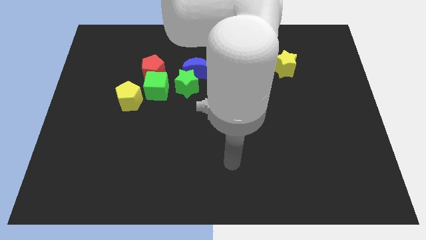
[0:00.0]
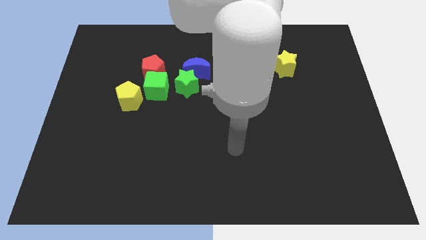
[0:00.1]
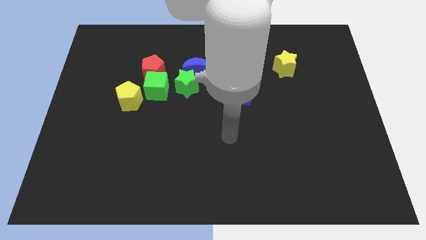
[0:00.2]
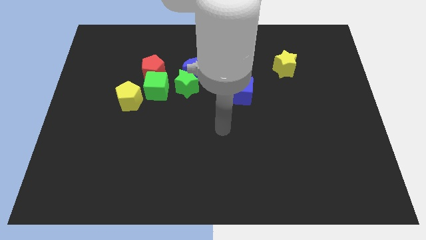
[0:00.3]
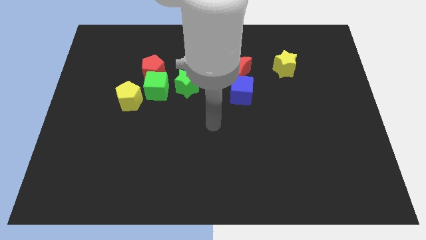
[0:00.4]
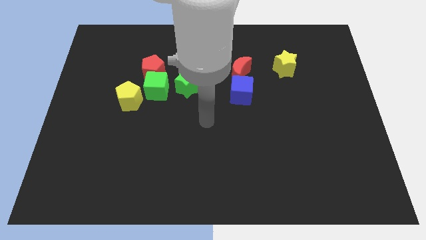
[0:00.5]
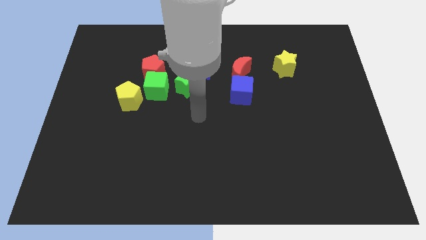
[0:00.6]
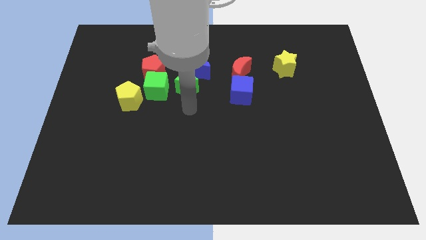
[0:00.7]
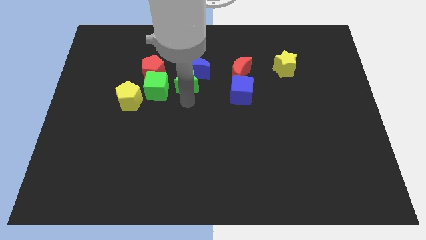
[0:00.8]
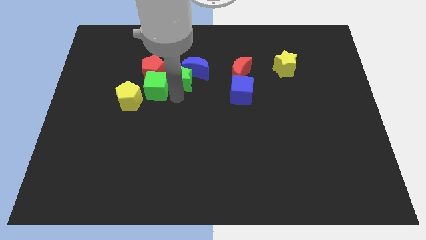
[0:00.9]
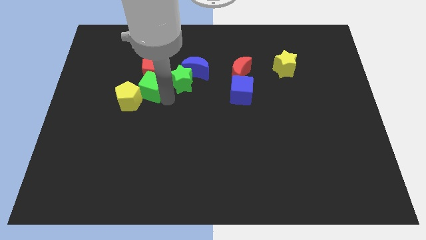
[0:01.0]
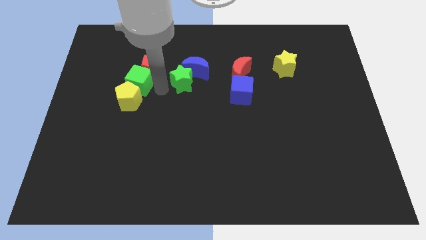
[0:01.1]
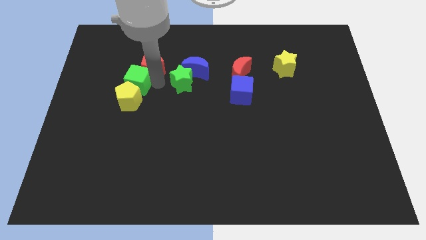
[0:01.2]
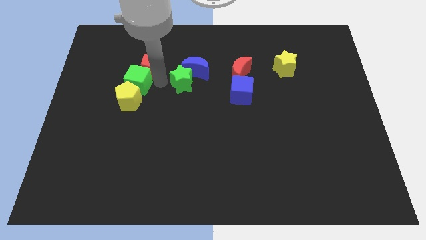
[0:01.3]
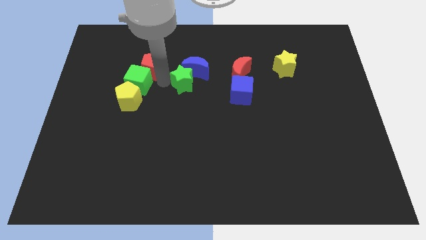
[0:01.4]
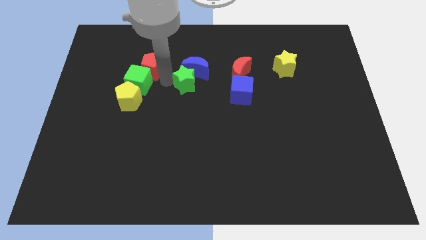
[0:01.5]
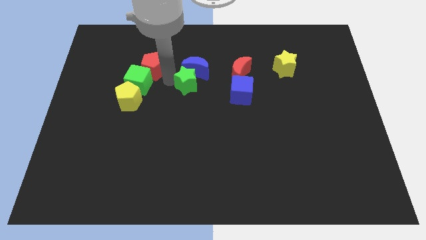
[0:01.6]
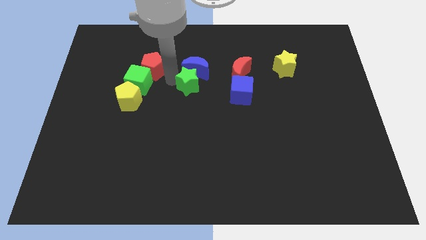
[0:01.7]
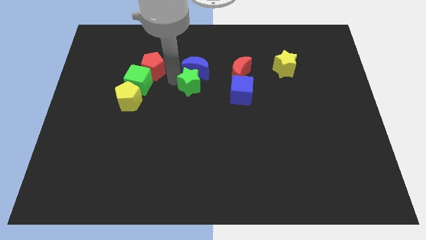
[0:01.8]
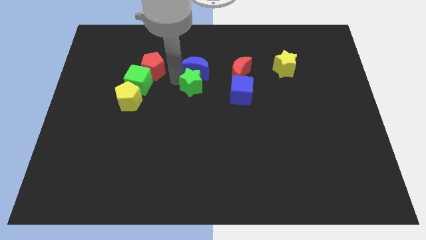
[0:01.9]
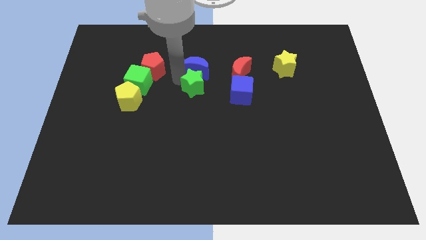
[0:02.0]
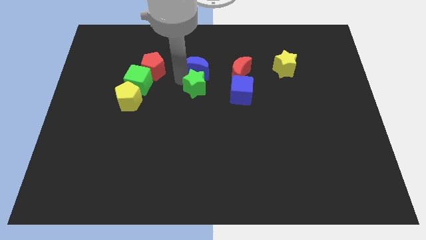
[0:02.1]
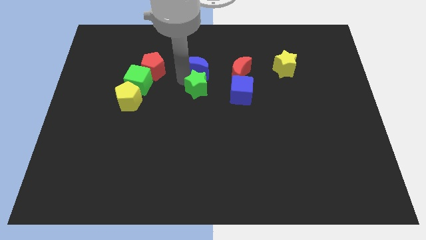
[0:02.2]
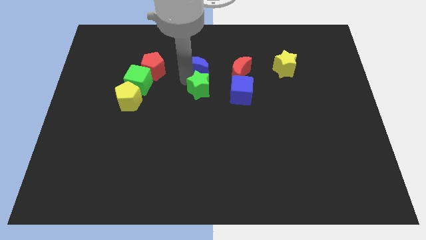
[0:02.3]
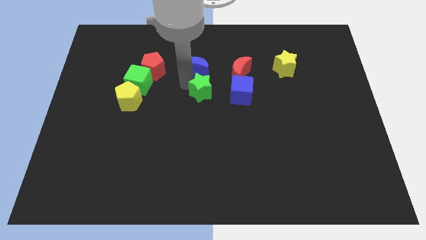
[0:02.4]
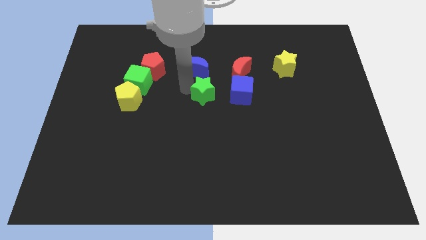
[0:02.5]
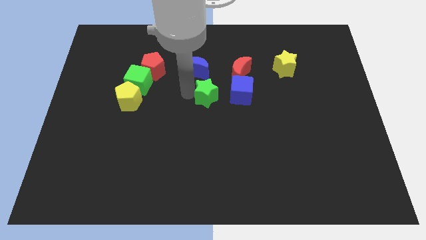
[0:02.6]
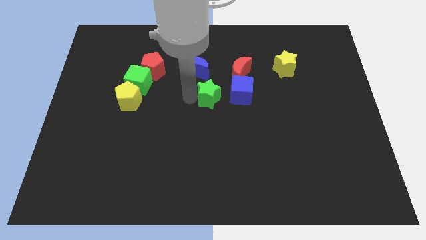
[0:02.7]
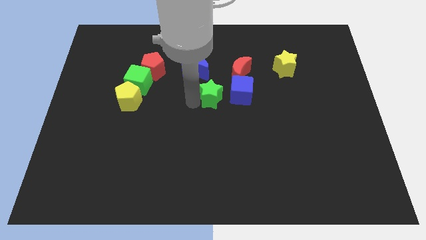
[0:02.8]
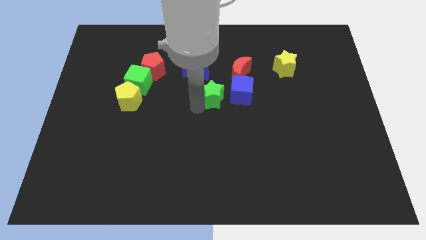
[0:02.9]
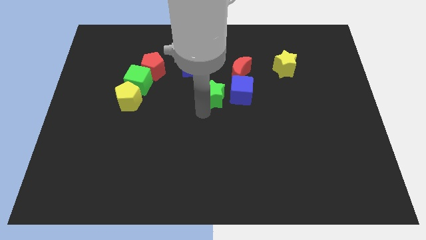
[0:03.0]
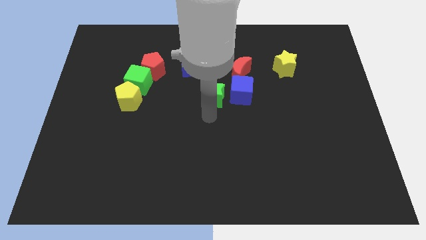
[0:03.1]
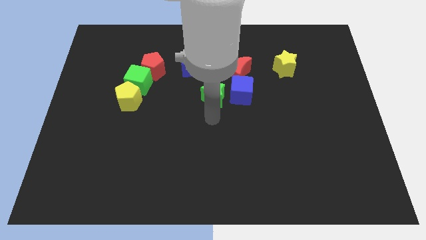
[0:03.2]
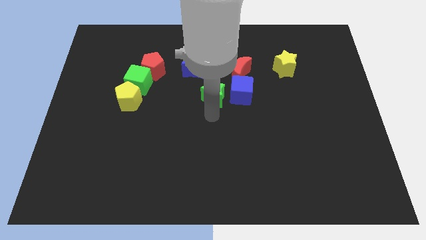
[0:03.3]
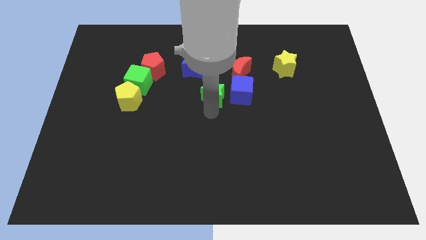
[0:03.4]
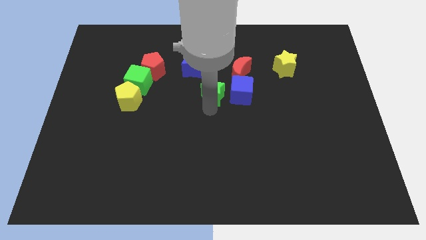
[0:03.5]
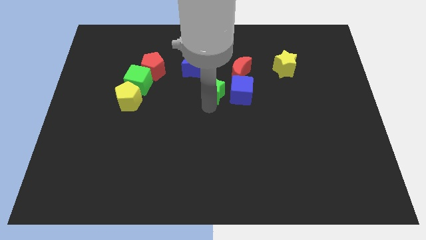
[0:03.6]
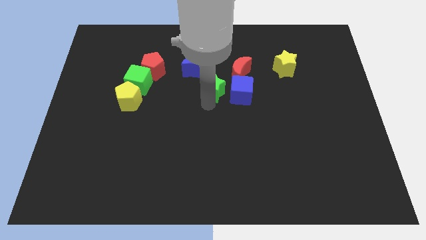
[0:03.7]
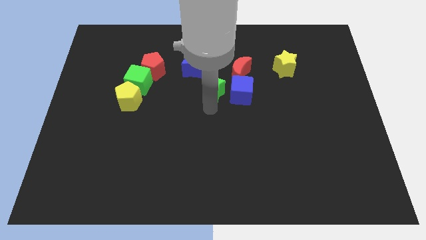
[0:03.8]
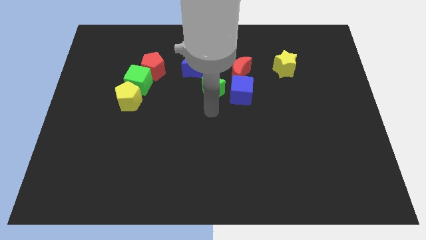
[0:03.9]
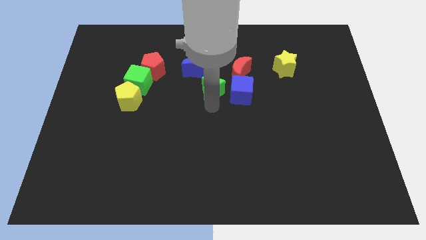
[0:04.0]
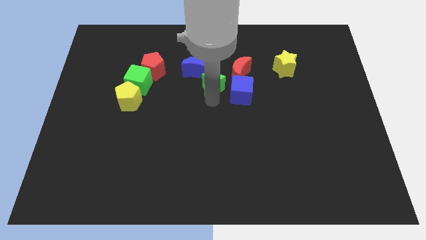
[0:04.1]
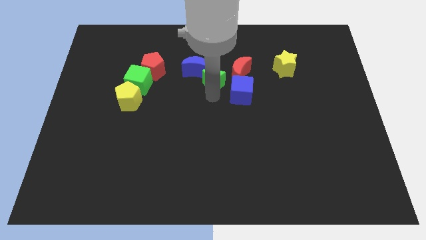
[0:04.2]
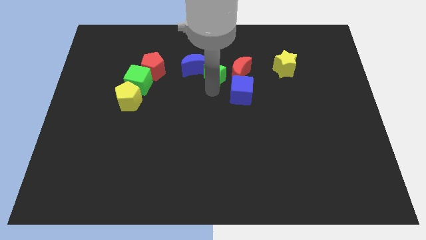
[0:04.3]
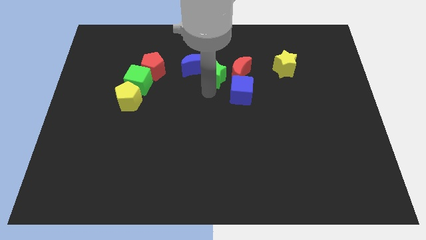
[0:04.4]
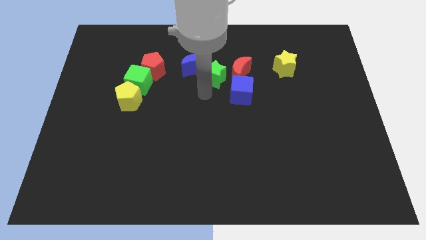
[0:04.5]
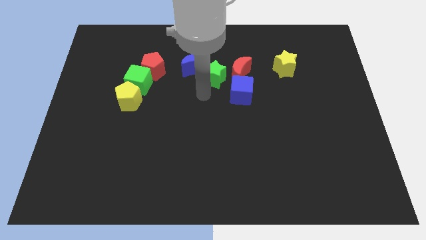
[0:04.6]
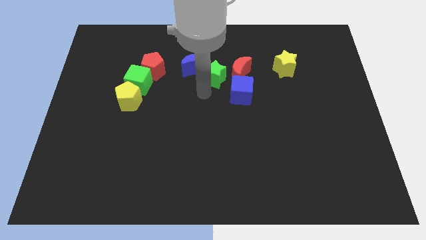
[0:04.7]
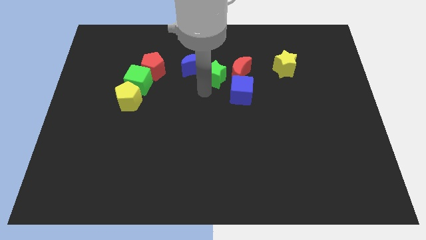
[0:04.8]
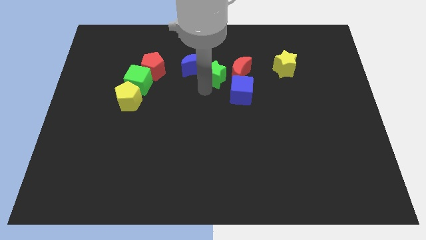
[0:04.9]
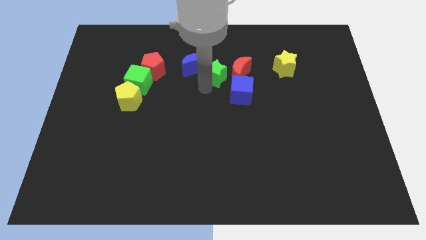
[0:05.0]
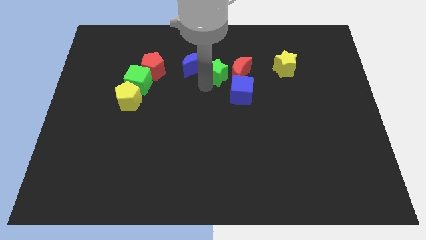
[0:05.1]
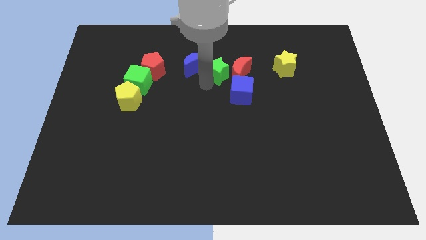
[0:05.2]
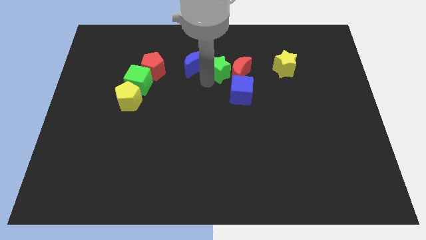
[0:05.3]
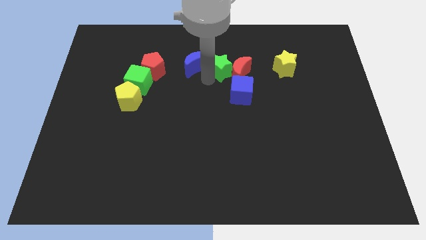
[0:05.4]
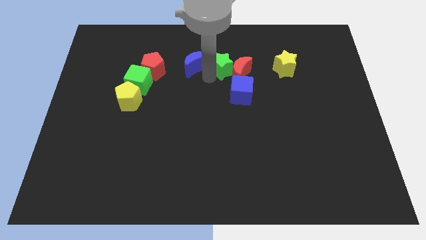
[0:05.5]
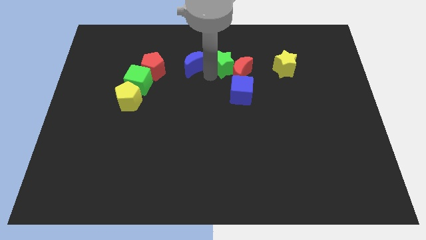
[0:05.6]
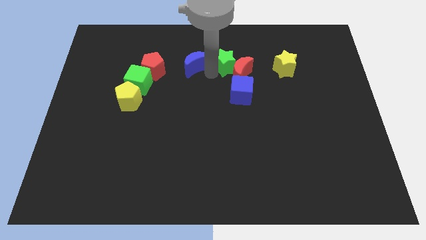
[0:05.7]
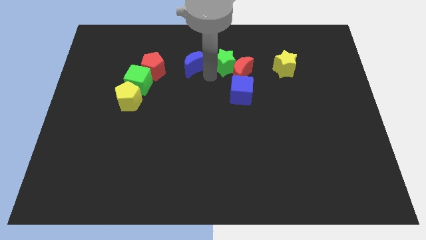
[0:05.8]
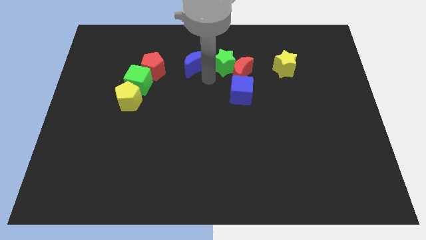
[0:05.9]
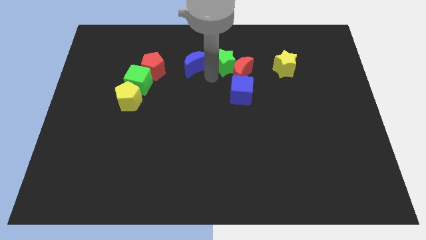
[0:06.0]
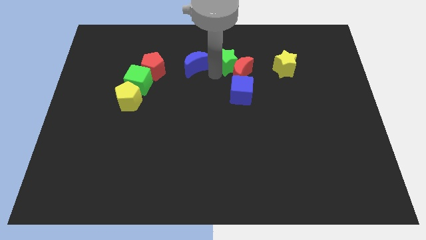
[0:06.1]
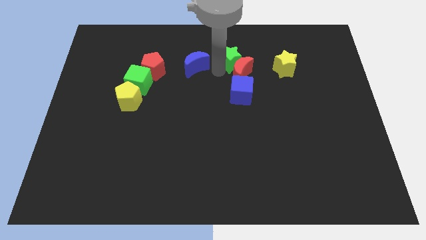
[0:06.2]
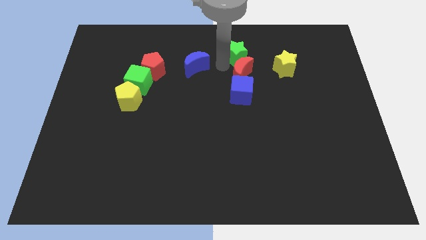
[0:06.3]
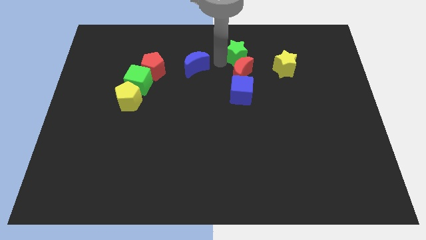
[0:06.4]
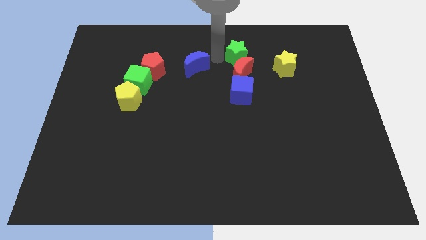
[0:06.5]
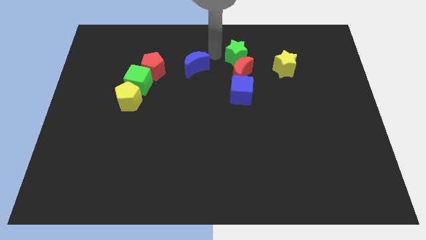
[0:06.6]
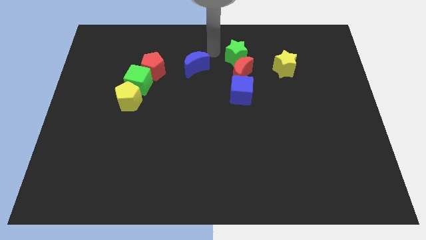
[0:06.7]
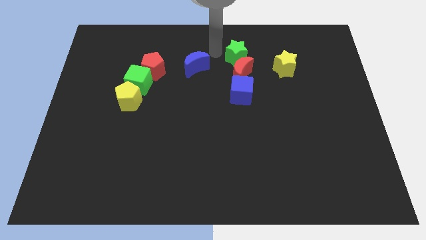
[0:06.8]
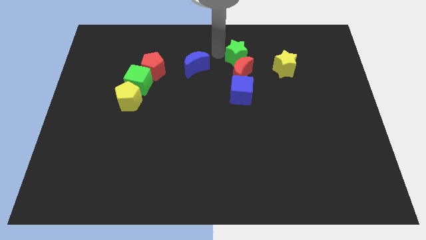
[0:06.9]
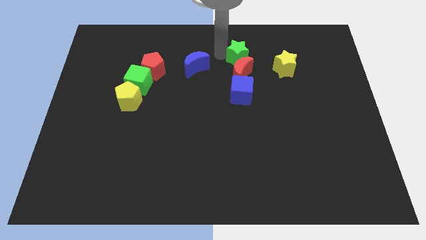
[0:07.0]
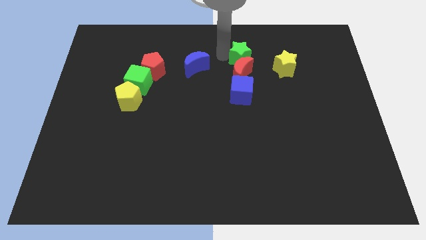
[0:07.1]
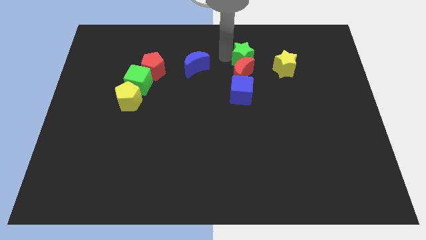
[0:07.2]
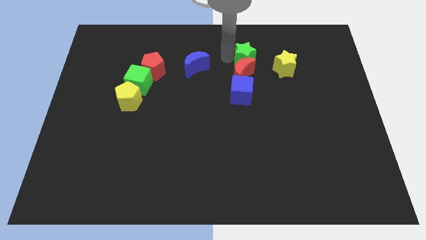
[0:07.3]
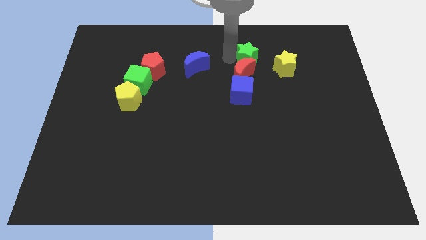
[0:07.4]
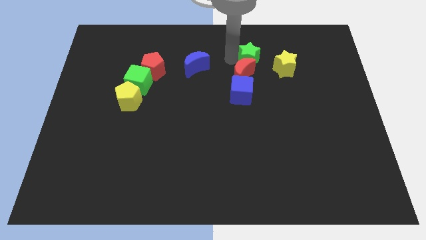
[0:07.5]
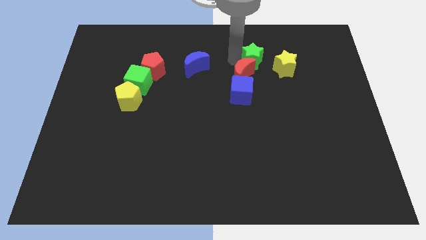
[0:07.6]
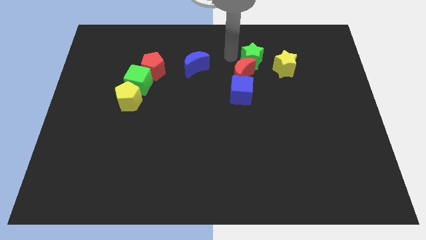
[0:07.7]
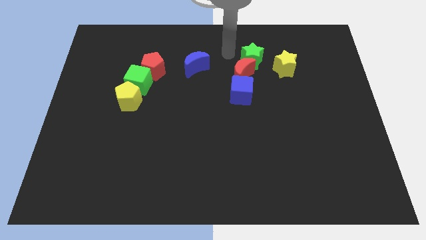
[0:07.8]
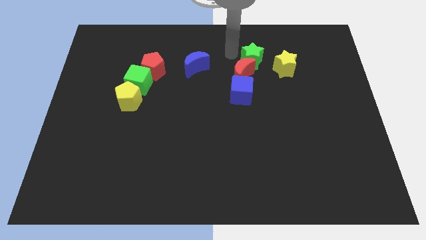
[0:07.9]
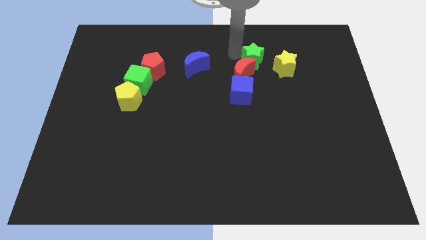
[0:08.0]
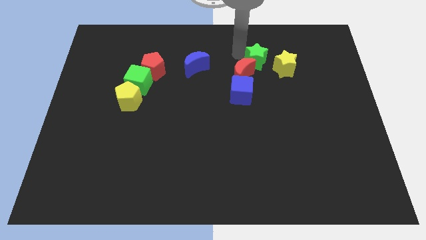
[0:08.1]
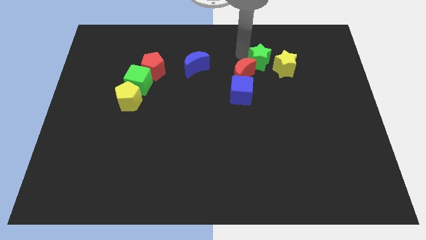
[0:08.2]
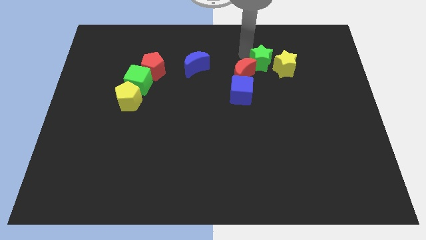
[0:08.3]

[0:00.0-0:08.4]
push the green star close to the yellow star

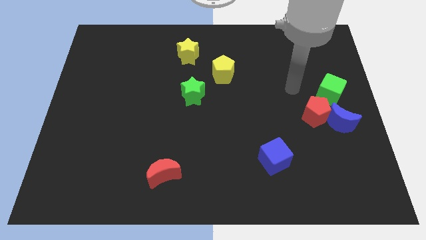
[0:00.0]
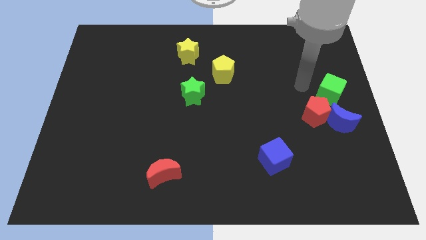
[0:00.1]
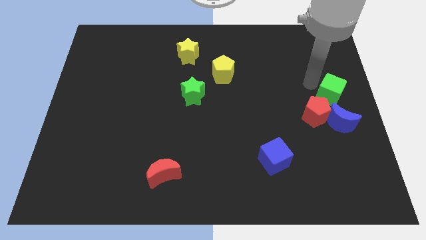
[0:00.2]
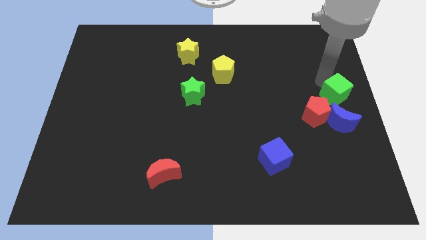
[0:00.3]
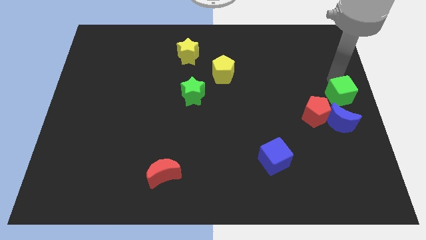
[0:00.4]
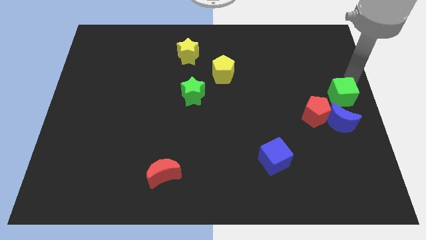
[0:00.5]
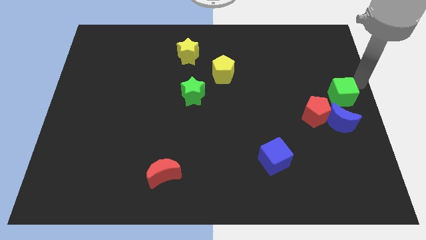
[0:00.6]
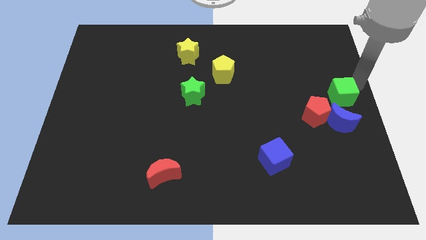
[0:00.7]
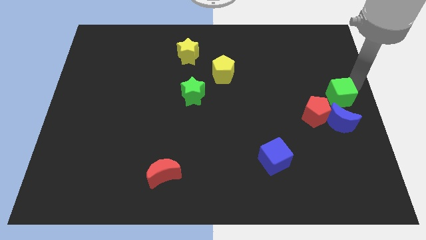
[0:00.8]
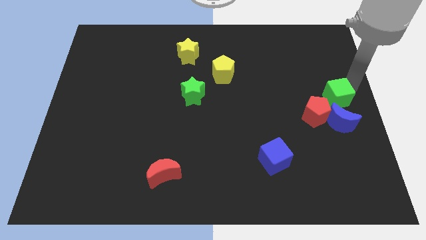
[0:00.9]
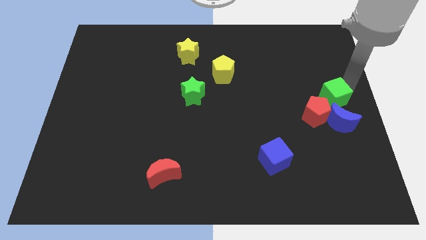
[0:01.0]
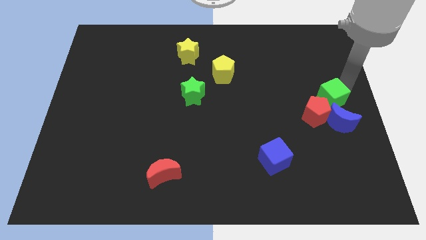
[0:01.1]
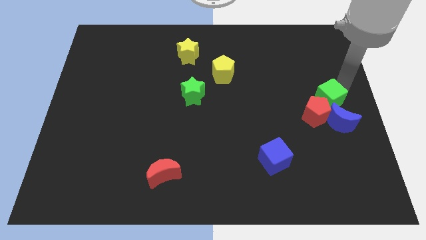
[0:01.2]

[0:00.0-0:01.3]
move the green cube next to the red pentagon
